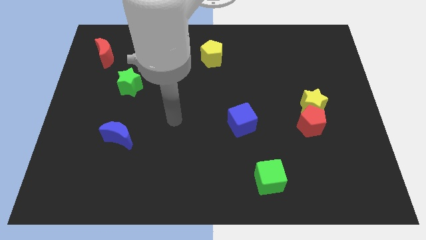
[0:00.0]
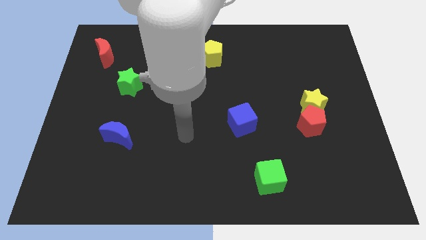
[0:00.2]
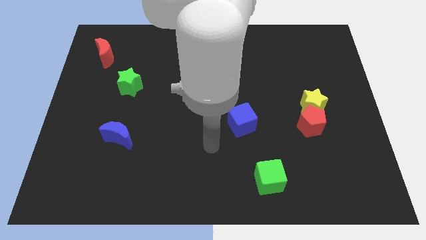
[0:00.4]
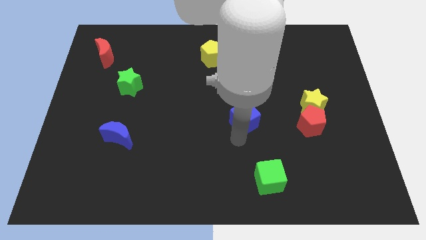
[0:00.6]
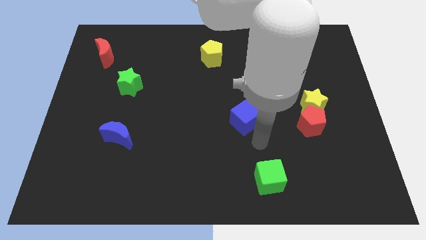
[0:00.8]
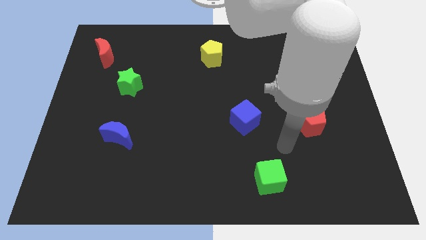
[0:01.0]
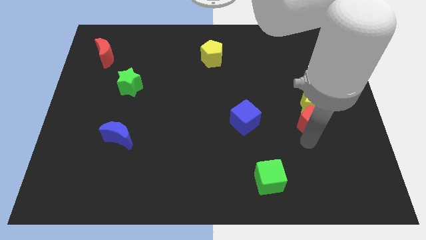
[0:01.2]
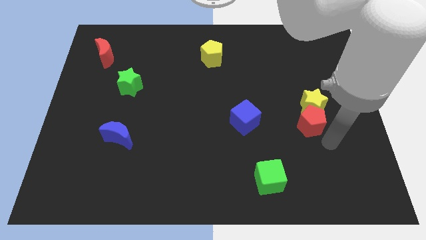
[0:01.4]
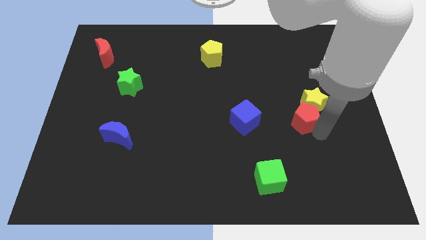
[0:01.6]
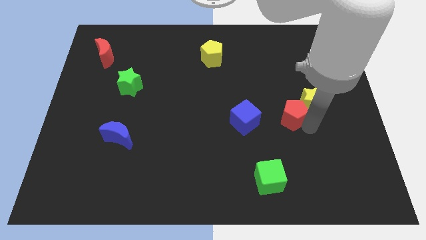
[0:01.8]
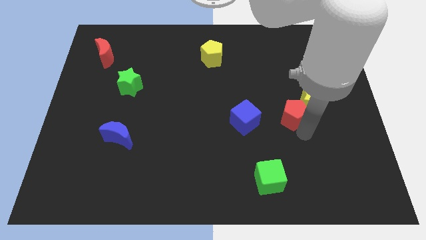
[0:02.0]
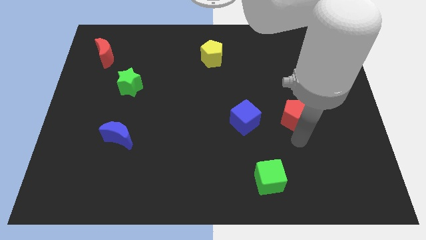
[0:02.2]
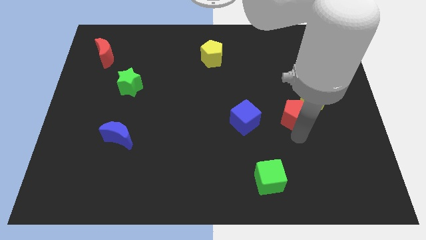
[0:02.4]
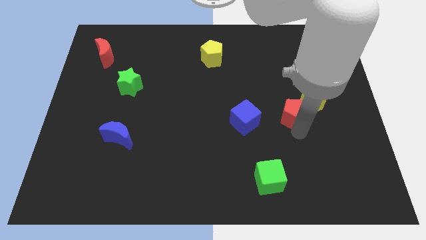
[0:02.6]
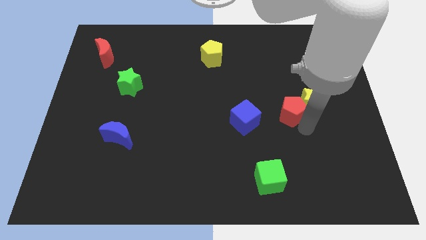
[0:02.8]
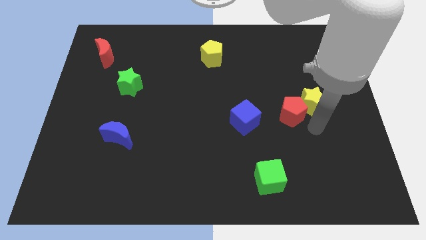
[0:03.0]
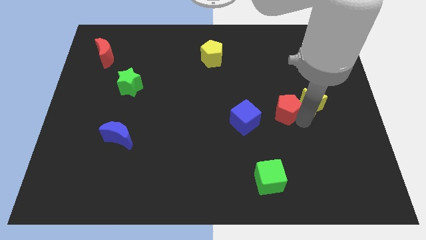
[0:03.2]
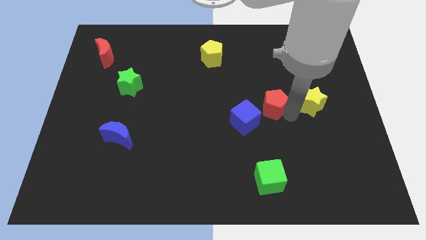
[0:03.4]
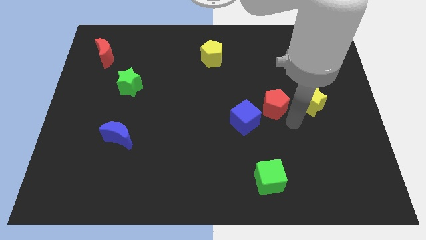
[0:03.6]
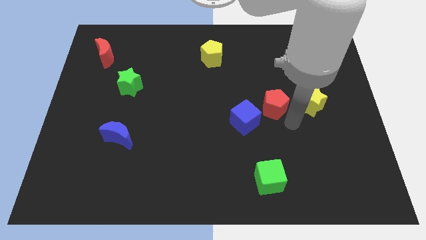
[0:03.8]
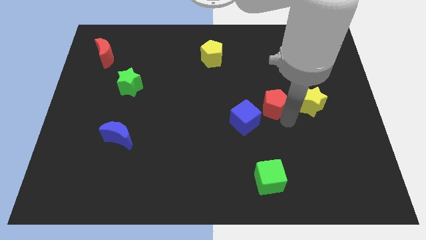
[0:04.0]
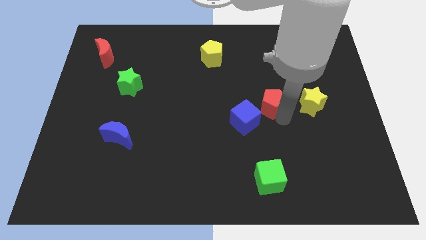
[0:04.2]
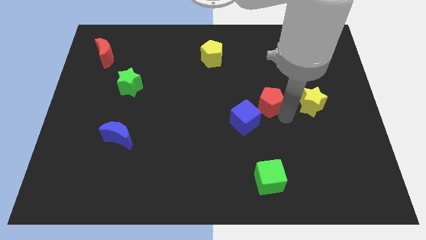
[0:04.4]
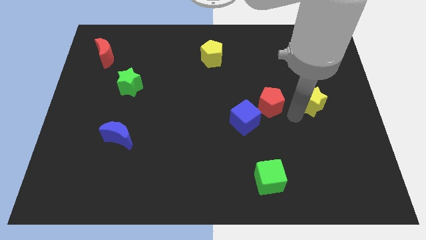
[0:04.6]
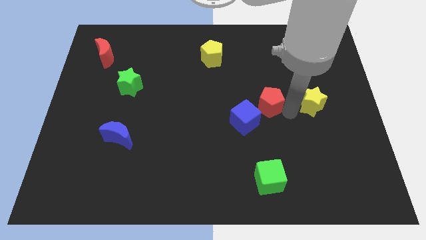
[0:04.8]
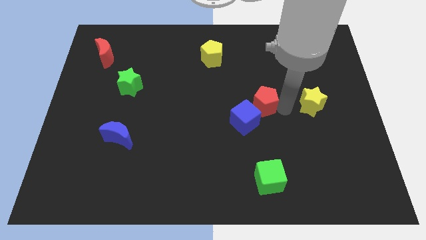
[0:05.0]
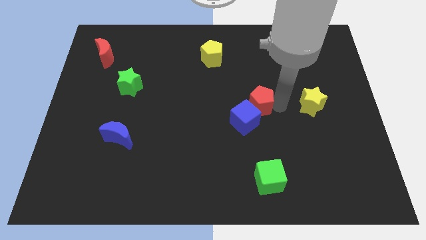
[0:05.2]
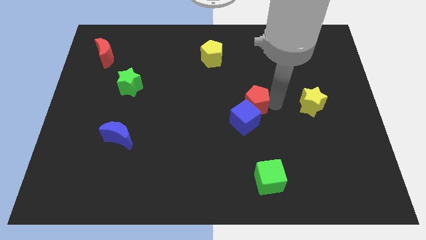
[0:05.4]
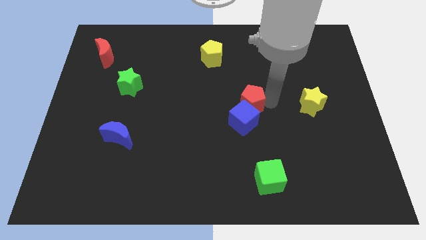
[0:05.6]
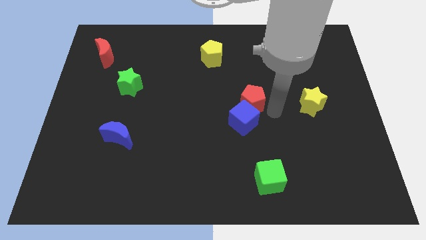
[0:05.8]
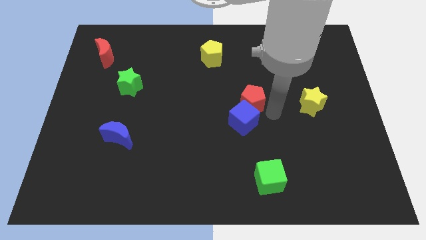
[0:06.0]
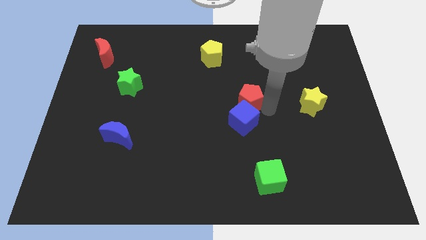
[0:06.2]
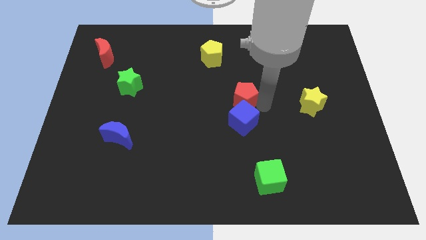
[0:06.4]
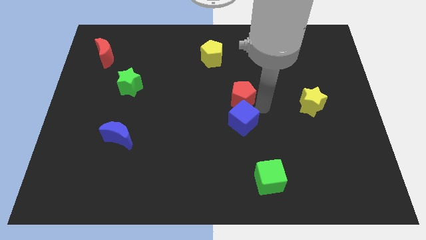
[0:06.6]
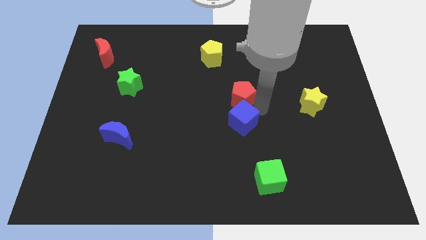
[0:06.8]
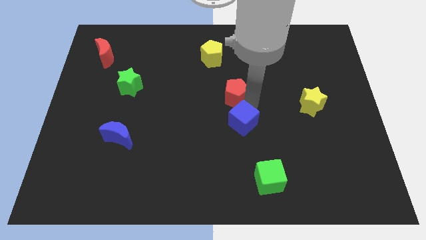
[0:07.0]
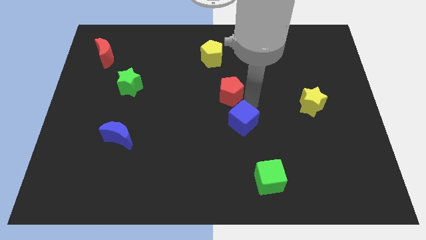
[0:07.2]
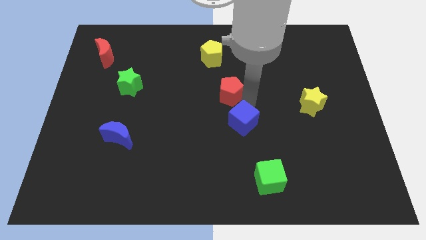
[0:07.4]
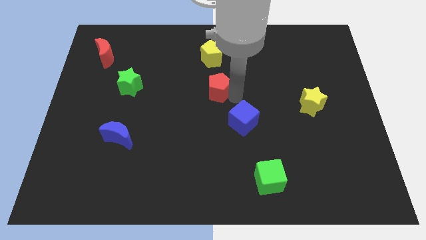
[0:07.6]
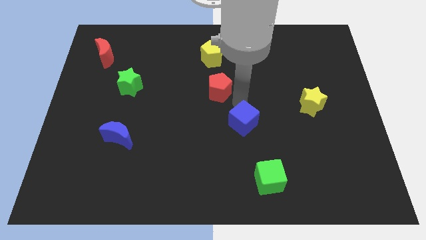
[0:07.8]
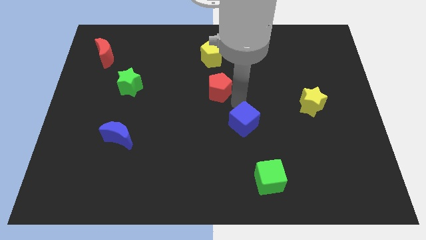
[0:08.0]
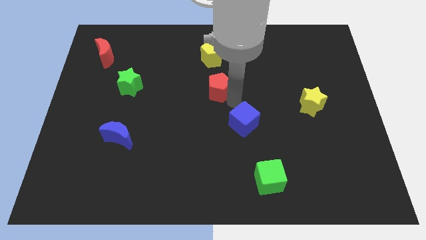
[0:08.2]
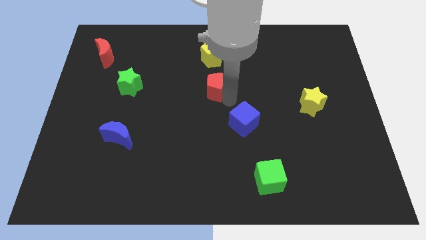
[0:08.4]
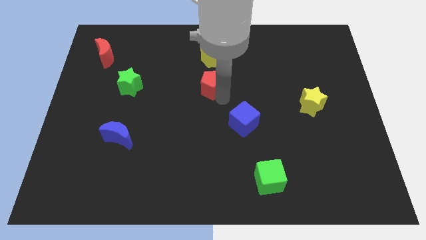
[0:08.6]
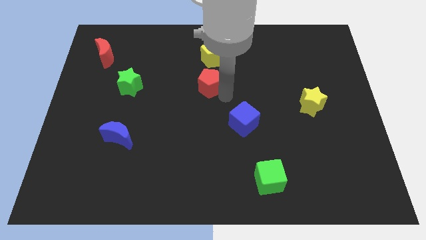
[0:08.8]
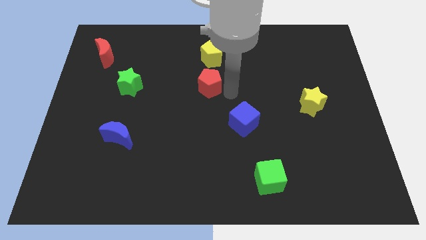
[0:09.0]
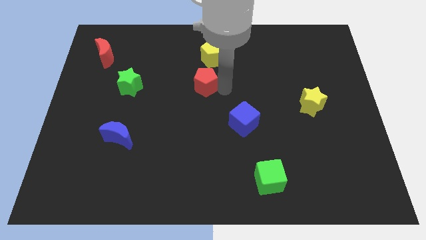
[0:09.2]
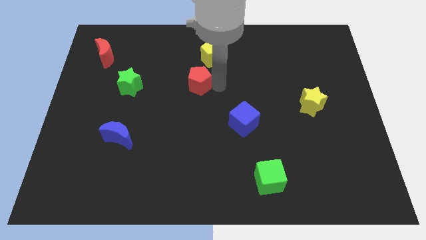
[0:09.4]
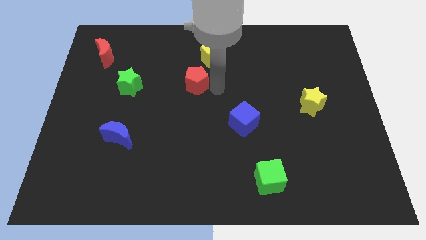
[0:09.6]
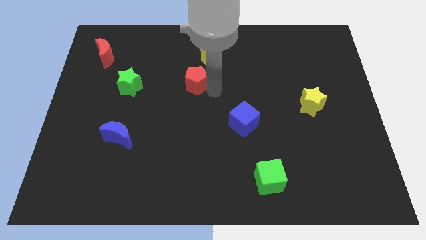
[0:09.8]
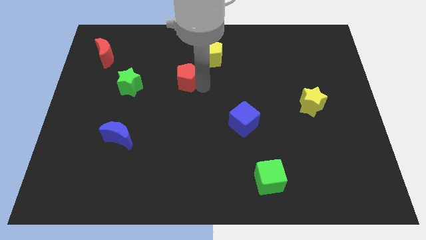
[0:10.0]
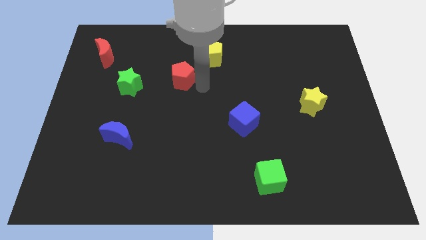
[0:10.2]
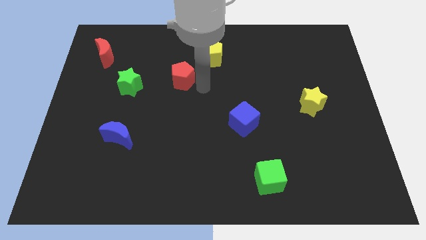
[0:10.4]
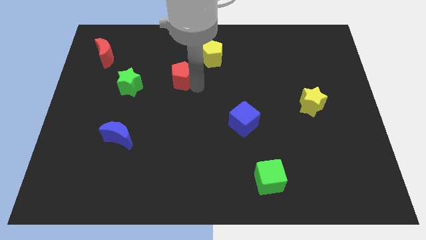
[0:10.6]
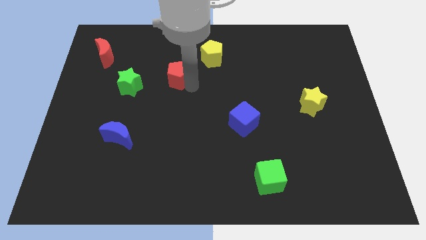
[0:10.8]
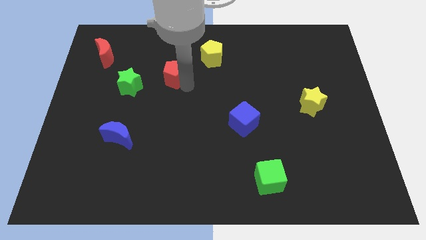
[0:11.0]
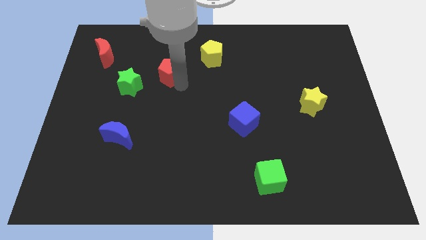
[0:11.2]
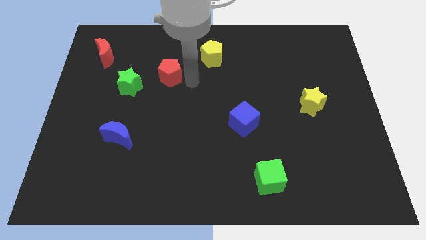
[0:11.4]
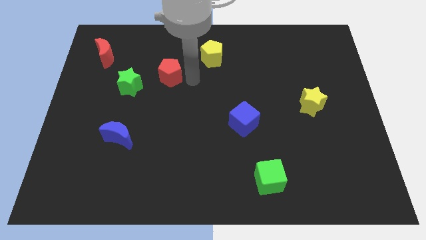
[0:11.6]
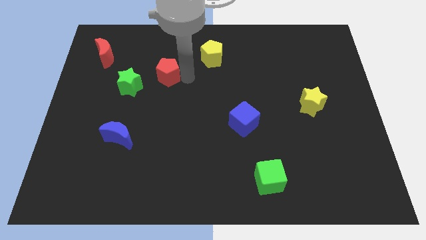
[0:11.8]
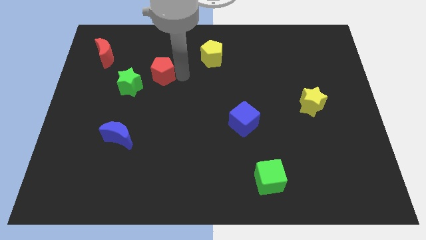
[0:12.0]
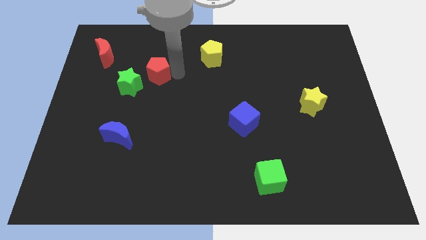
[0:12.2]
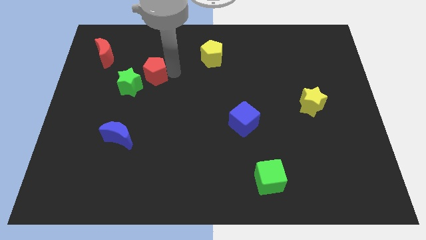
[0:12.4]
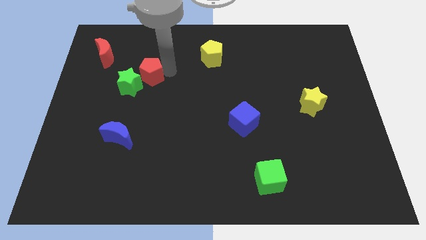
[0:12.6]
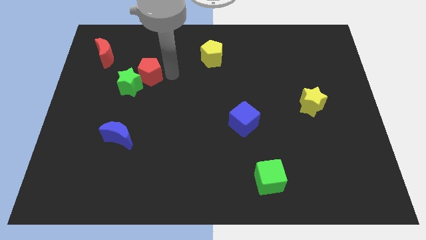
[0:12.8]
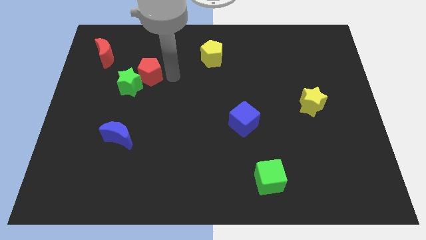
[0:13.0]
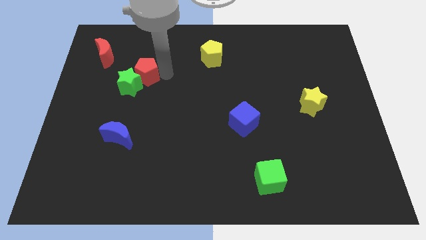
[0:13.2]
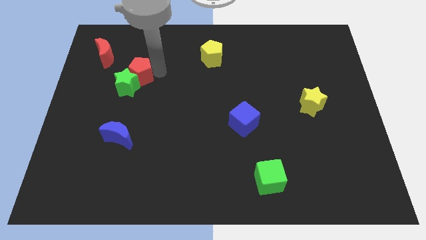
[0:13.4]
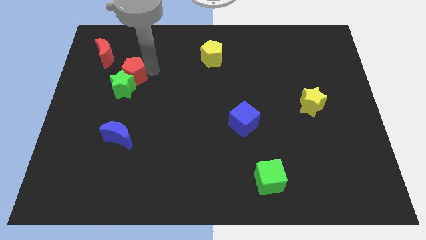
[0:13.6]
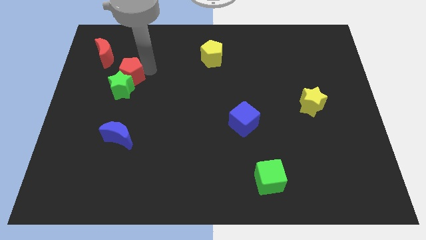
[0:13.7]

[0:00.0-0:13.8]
slide the red pentagon to the top left side of the green star

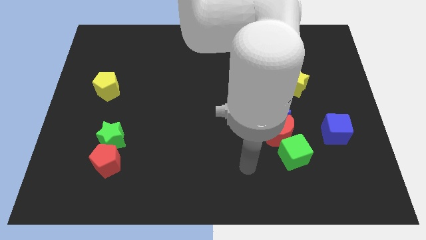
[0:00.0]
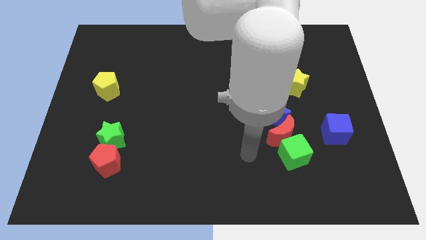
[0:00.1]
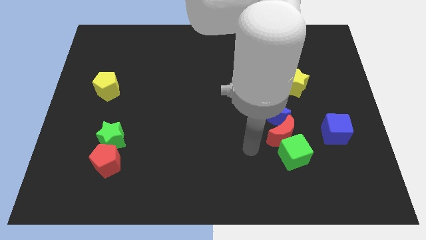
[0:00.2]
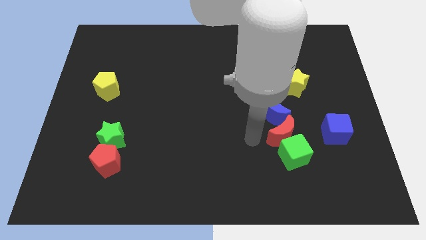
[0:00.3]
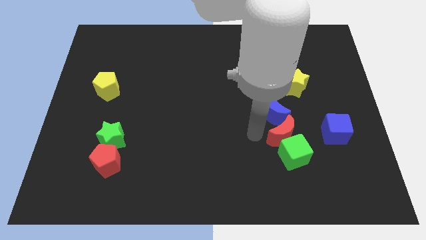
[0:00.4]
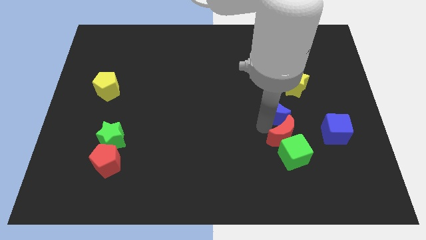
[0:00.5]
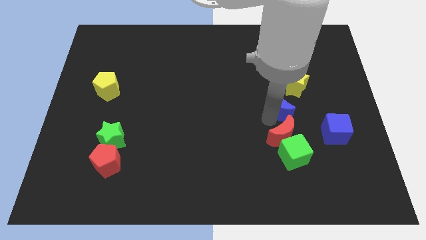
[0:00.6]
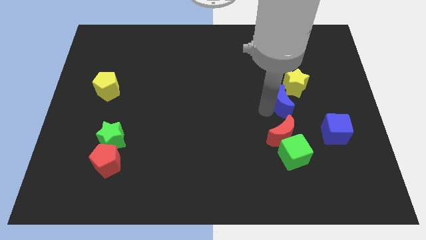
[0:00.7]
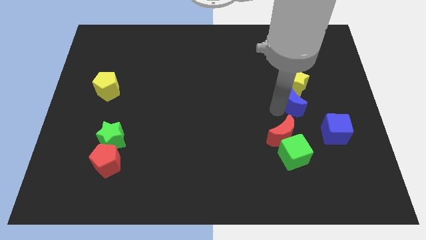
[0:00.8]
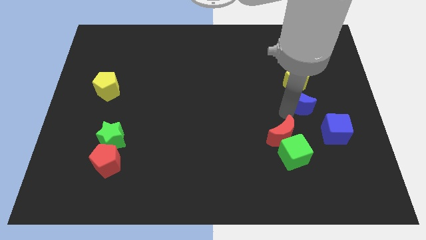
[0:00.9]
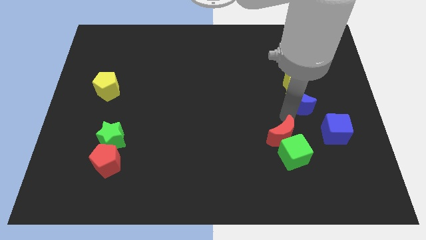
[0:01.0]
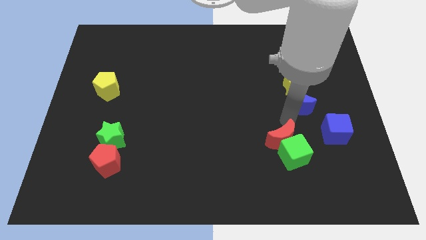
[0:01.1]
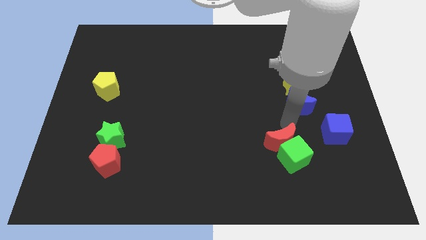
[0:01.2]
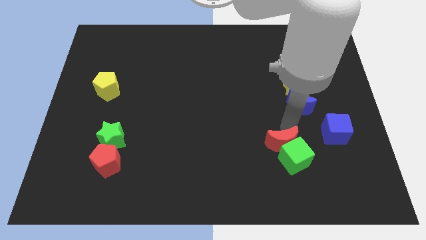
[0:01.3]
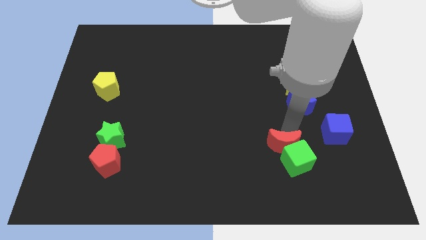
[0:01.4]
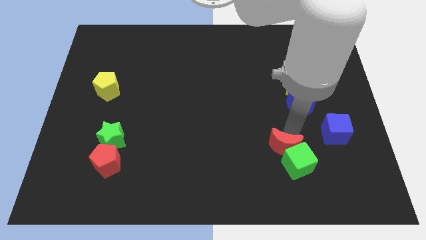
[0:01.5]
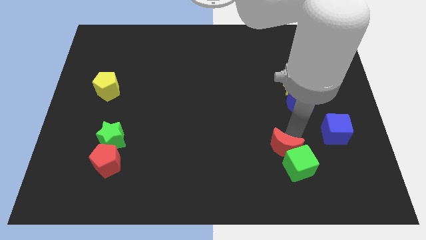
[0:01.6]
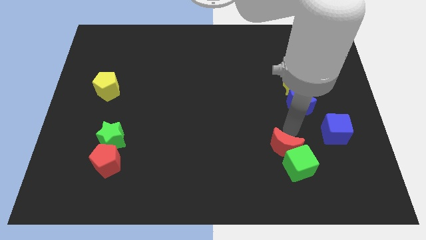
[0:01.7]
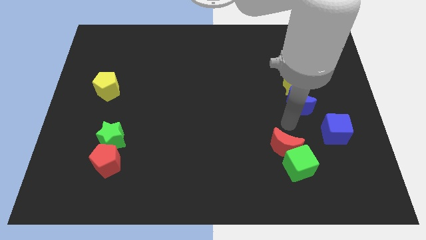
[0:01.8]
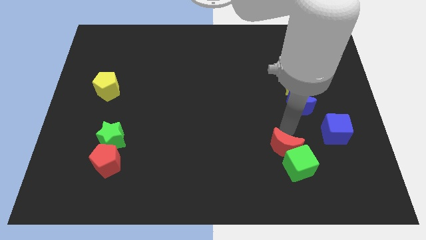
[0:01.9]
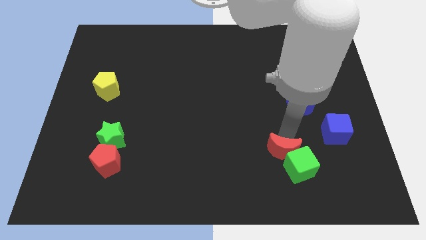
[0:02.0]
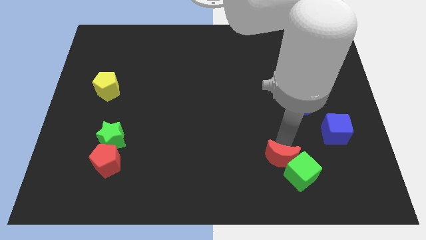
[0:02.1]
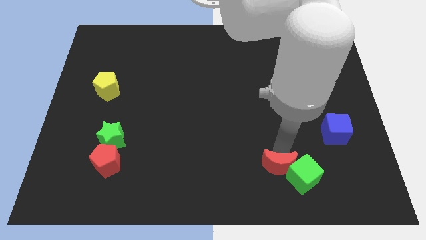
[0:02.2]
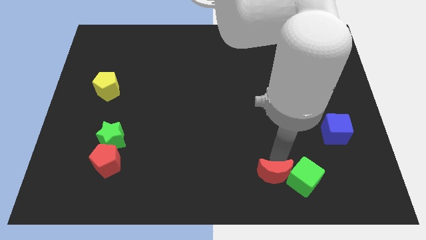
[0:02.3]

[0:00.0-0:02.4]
slide the red moon to the bottom left side of the green cube
